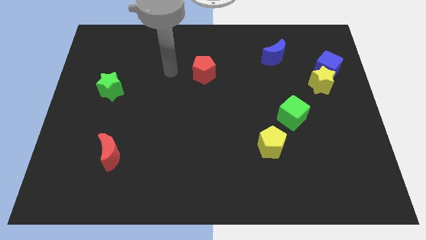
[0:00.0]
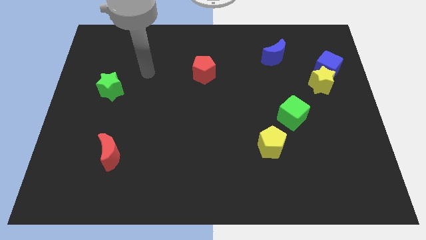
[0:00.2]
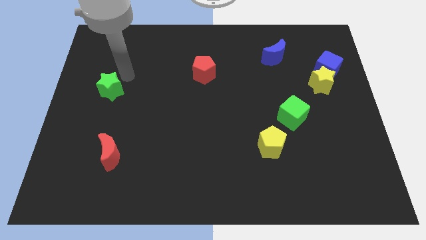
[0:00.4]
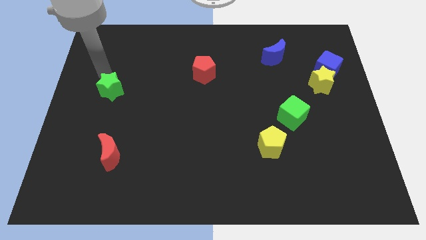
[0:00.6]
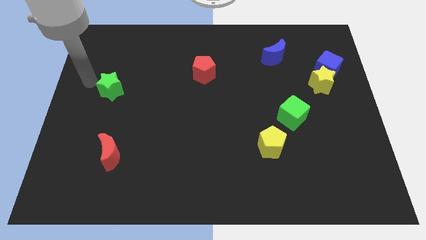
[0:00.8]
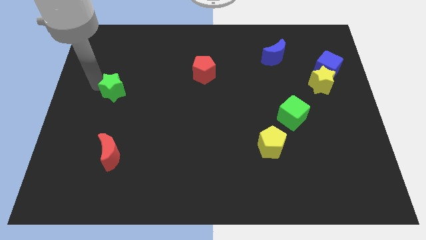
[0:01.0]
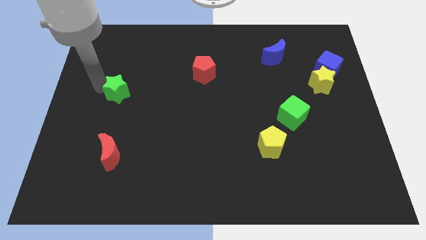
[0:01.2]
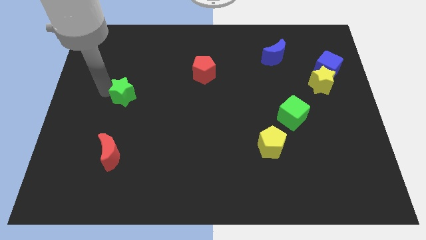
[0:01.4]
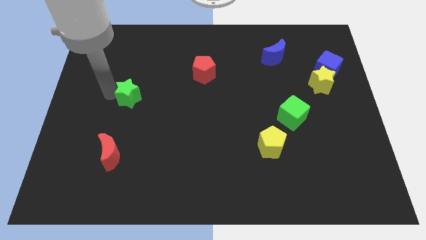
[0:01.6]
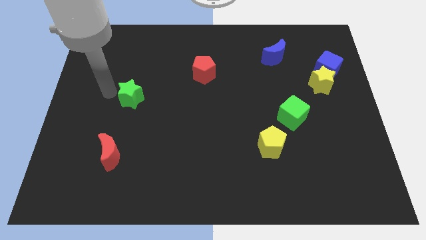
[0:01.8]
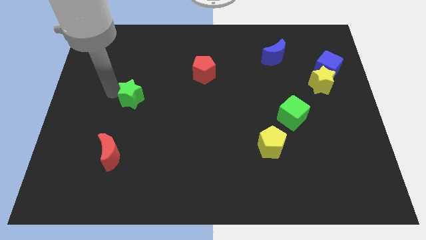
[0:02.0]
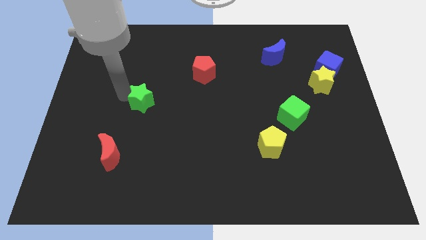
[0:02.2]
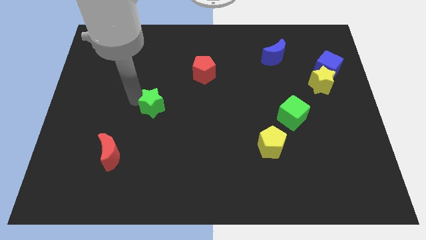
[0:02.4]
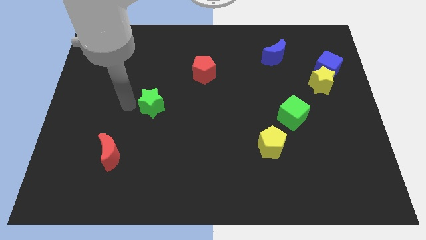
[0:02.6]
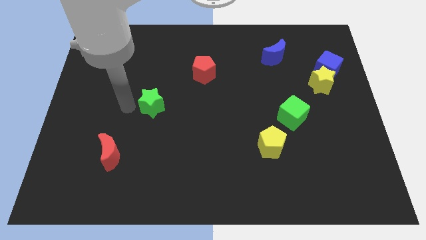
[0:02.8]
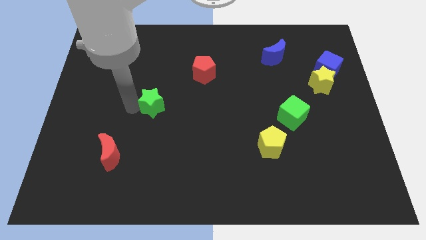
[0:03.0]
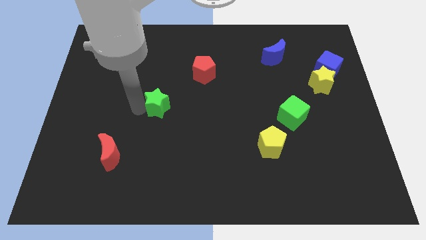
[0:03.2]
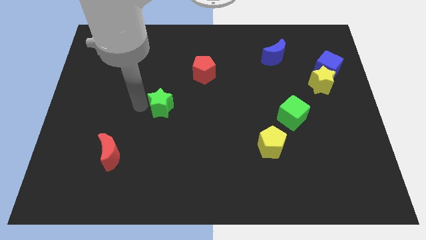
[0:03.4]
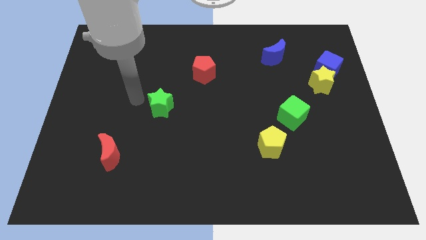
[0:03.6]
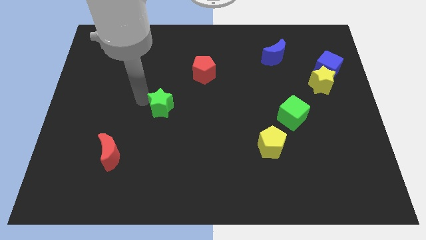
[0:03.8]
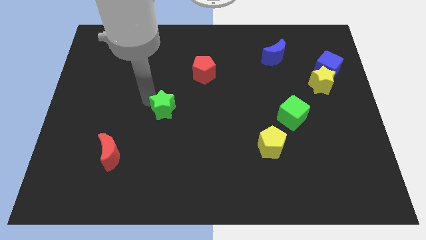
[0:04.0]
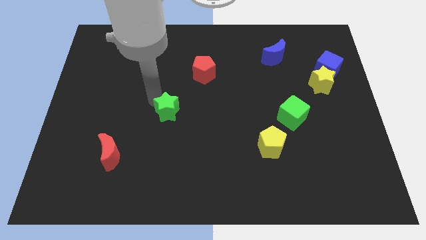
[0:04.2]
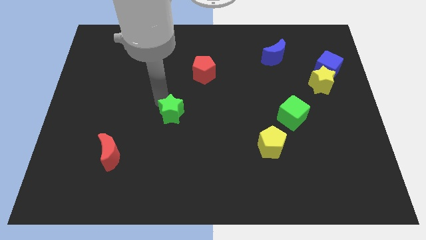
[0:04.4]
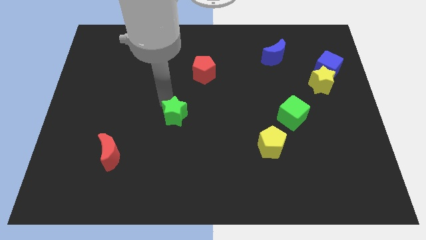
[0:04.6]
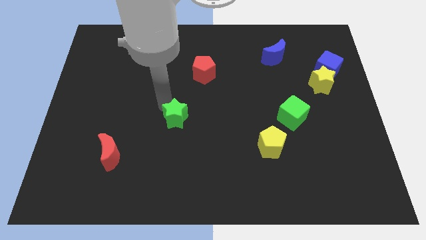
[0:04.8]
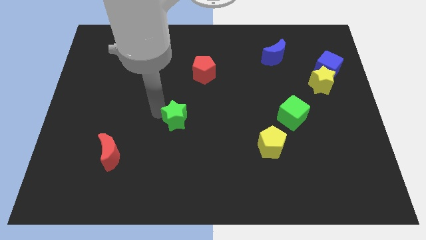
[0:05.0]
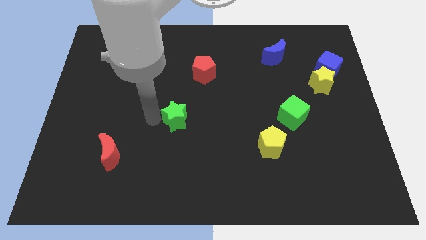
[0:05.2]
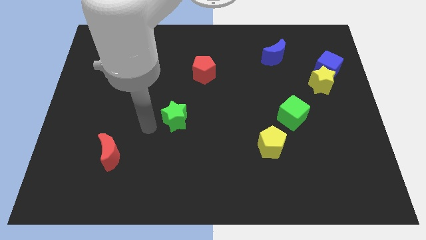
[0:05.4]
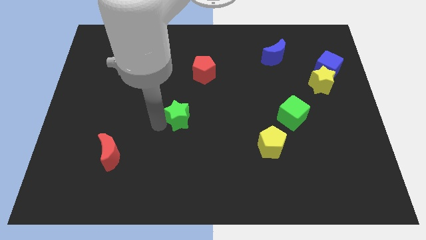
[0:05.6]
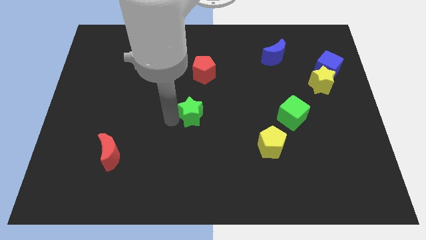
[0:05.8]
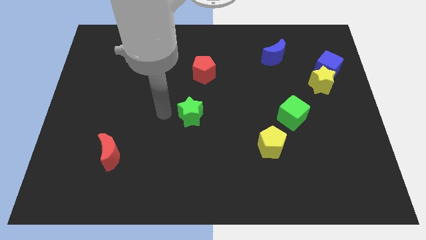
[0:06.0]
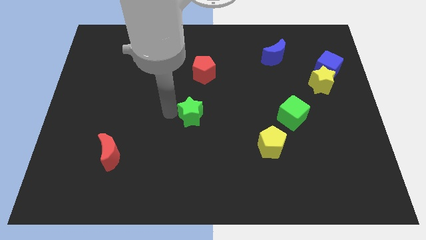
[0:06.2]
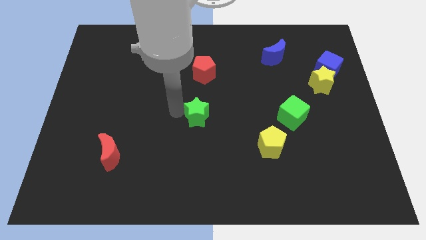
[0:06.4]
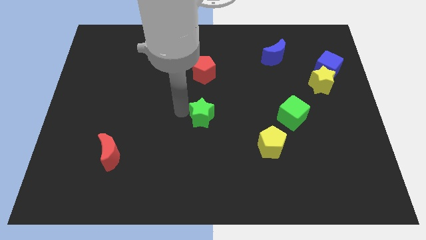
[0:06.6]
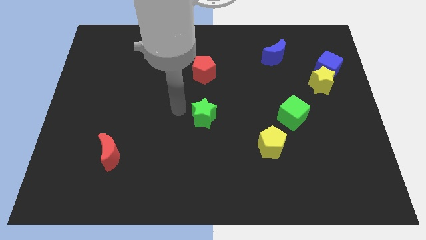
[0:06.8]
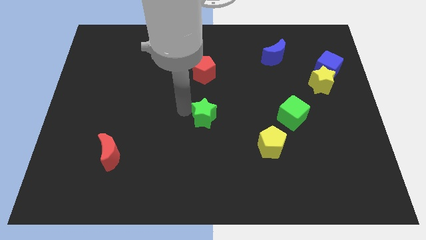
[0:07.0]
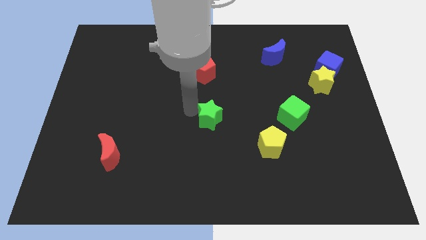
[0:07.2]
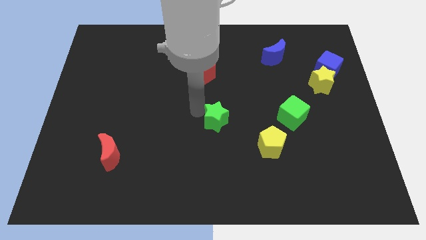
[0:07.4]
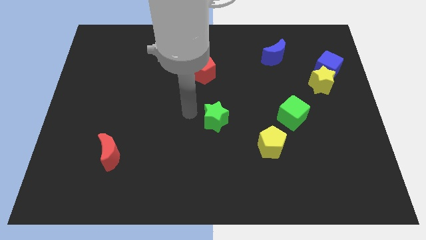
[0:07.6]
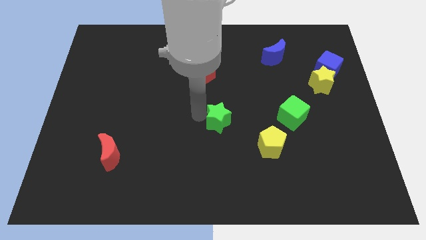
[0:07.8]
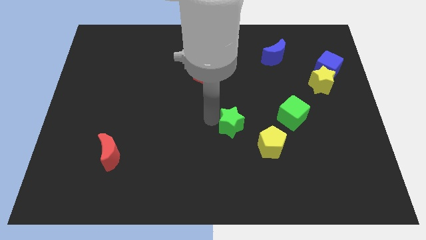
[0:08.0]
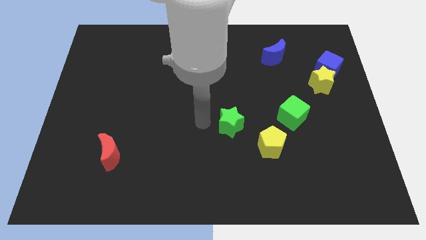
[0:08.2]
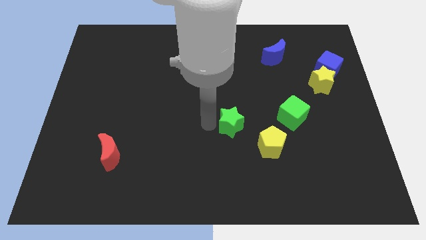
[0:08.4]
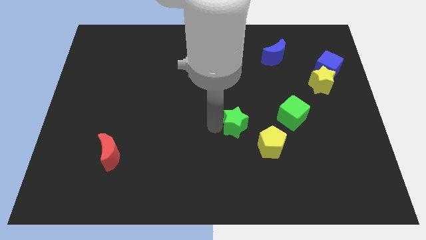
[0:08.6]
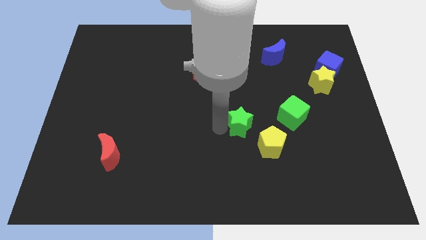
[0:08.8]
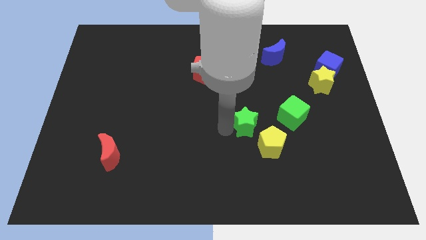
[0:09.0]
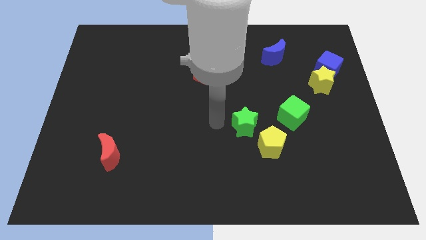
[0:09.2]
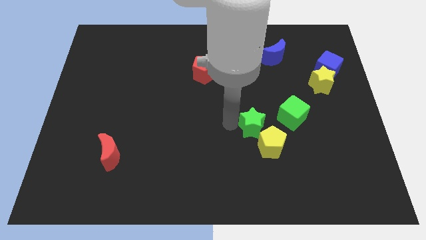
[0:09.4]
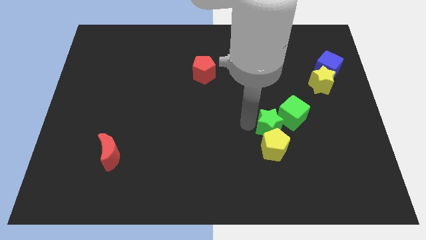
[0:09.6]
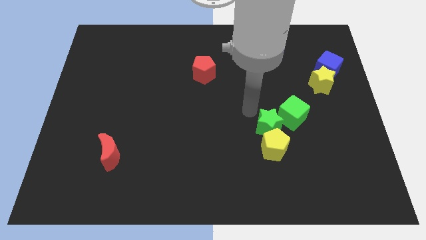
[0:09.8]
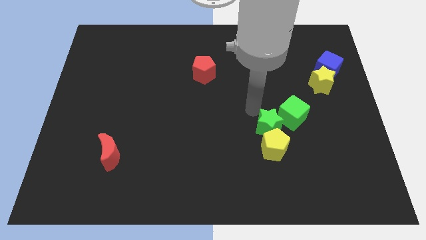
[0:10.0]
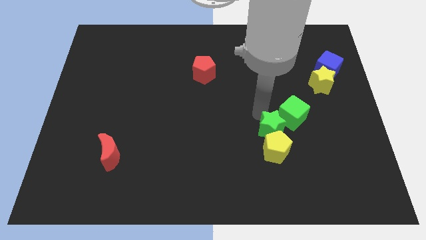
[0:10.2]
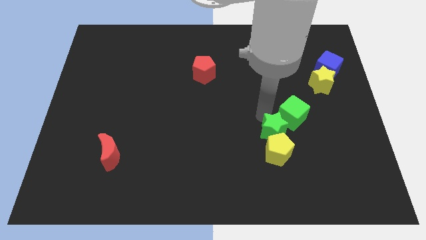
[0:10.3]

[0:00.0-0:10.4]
push the green star to the bottom of the green cube
